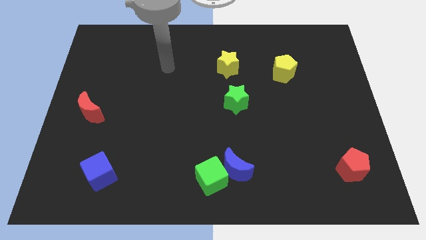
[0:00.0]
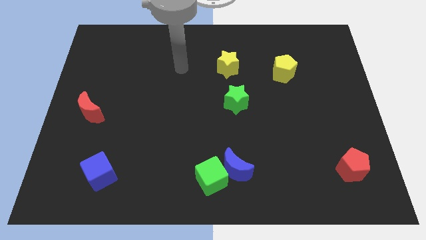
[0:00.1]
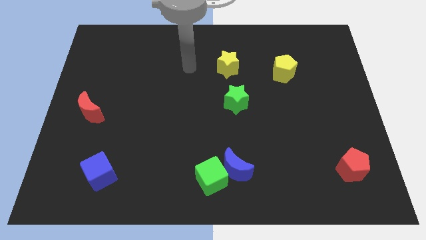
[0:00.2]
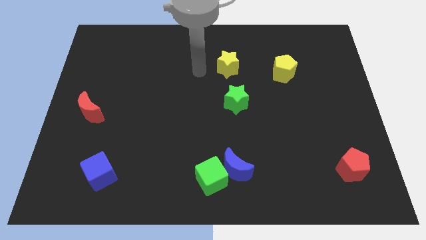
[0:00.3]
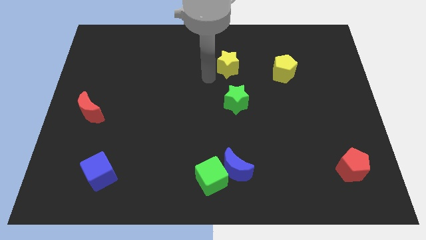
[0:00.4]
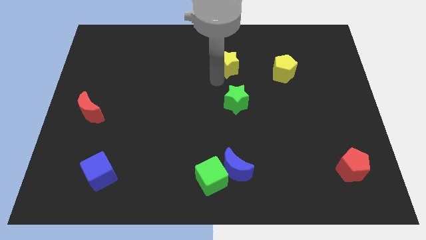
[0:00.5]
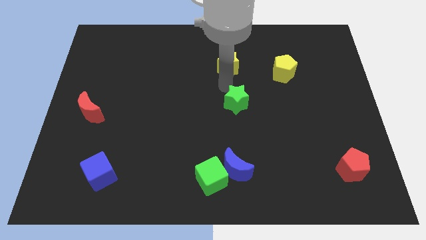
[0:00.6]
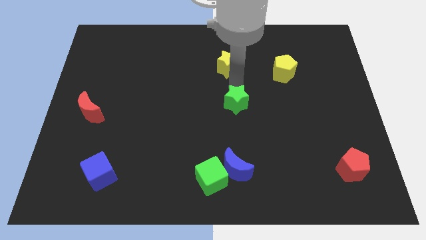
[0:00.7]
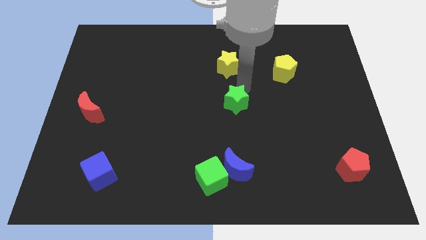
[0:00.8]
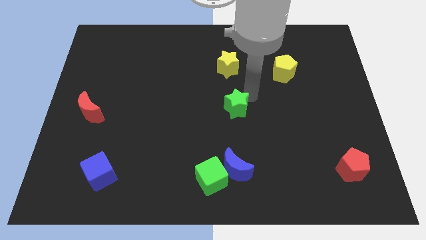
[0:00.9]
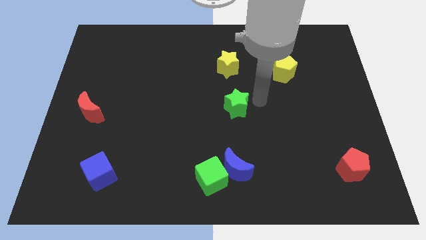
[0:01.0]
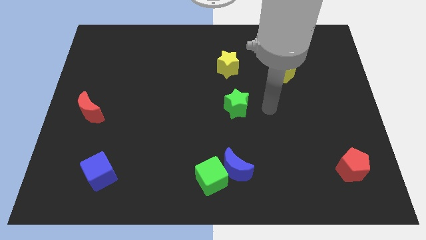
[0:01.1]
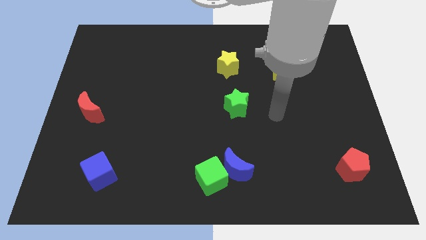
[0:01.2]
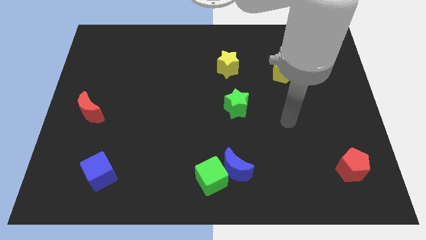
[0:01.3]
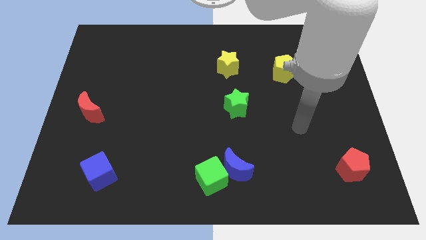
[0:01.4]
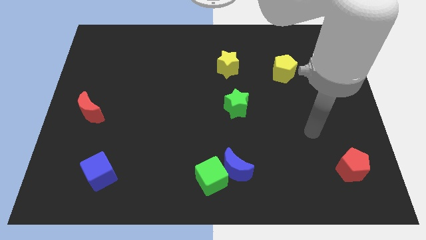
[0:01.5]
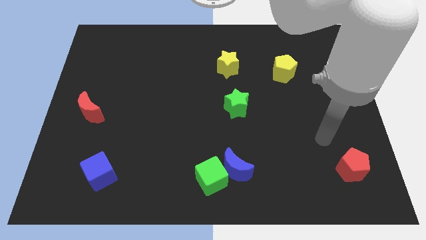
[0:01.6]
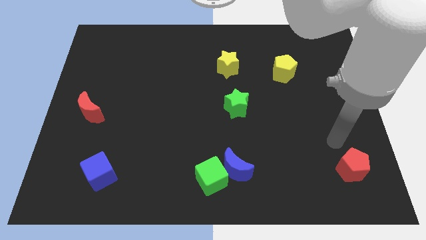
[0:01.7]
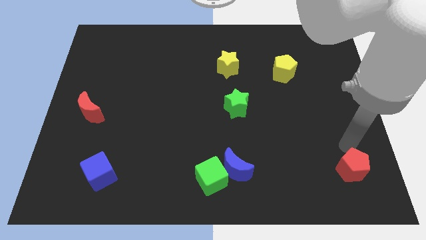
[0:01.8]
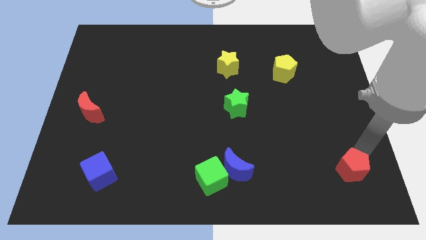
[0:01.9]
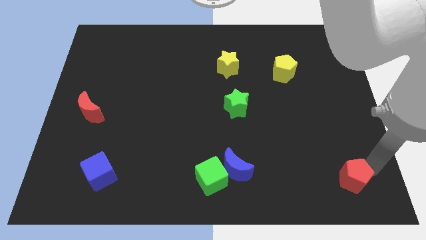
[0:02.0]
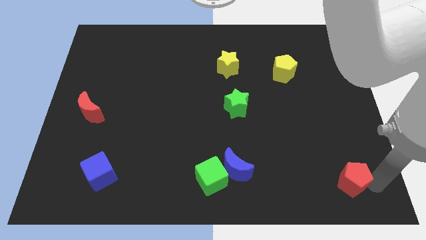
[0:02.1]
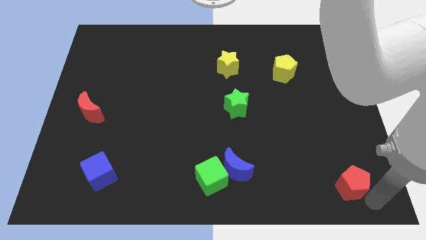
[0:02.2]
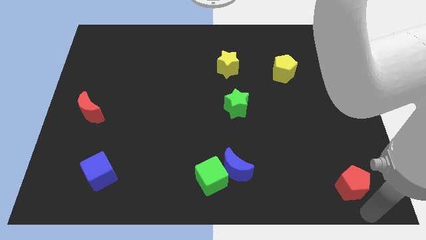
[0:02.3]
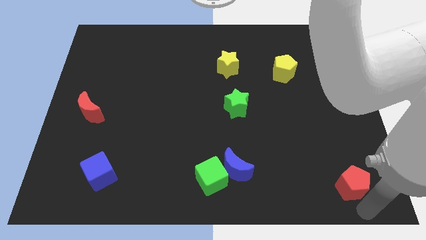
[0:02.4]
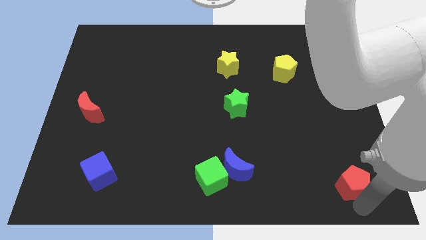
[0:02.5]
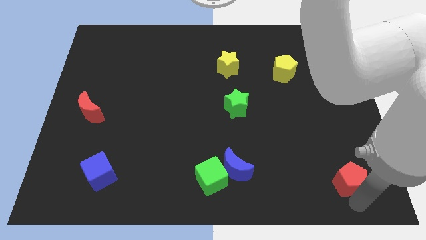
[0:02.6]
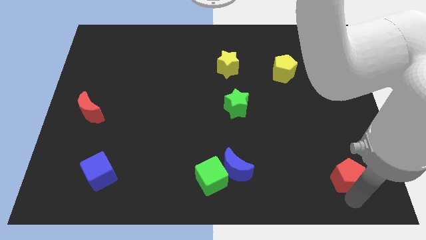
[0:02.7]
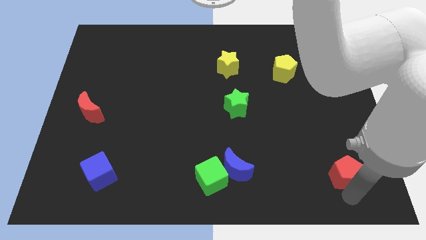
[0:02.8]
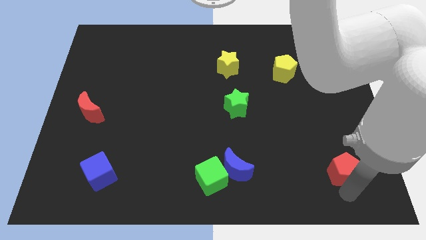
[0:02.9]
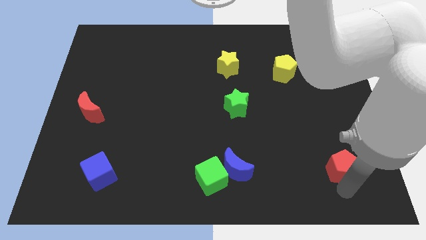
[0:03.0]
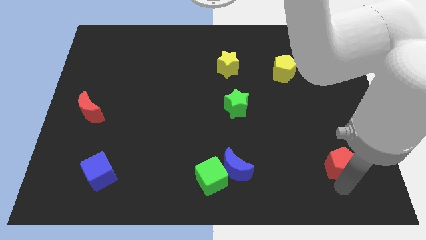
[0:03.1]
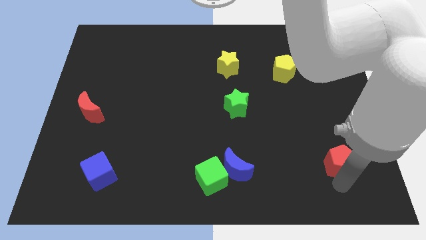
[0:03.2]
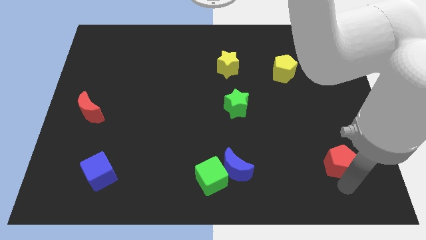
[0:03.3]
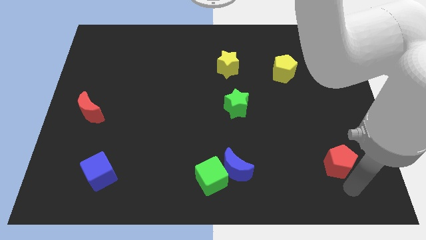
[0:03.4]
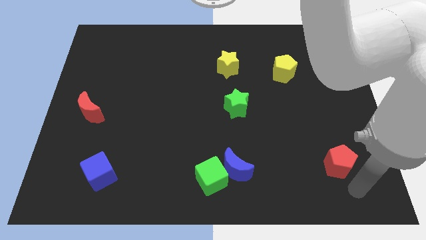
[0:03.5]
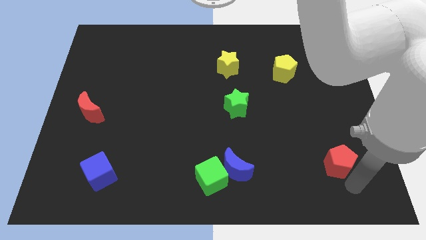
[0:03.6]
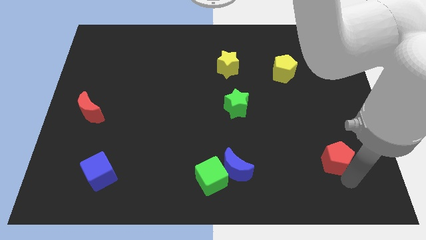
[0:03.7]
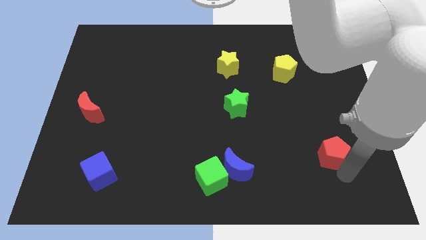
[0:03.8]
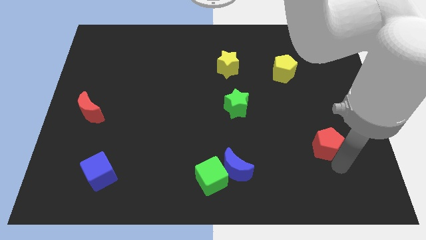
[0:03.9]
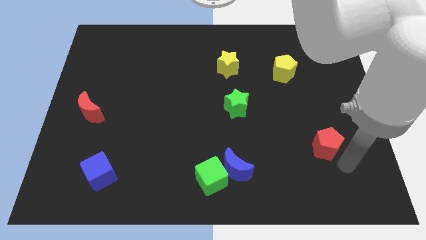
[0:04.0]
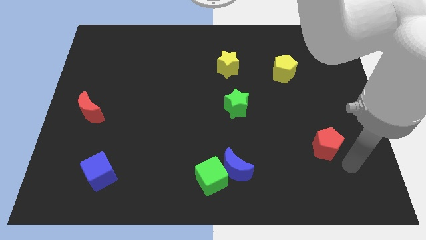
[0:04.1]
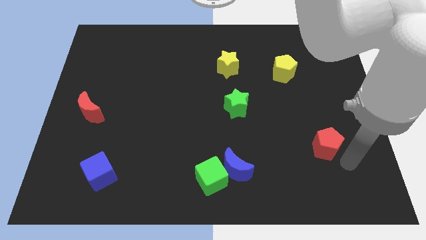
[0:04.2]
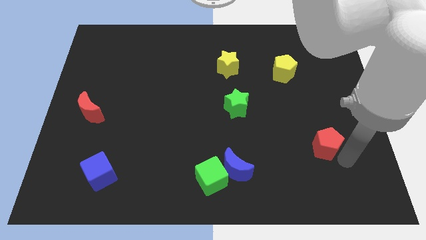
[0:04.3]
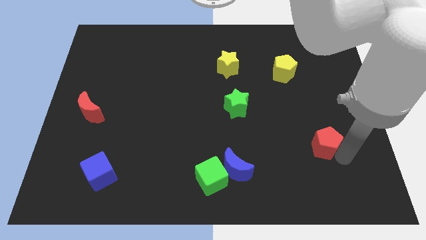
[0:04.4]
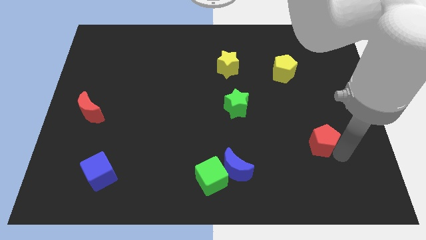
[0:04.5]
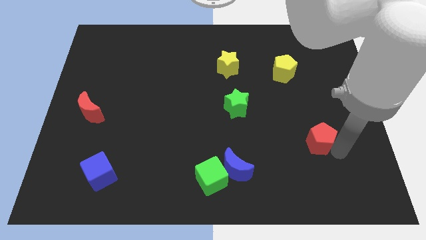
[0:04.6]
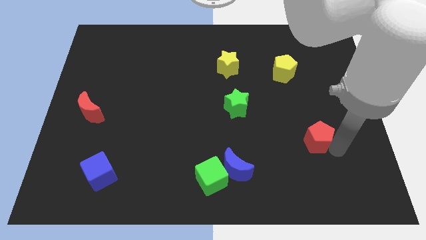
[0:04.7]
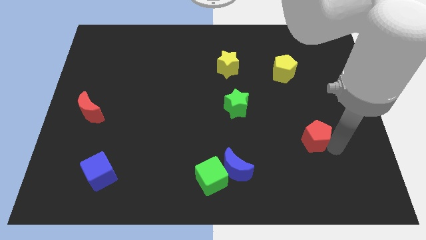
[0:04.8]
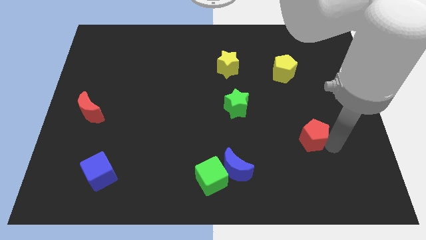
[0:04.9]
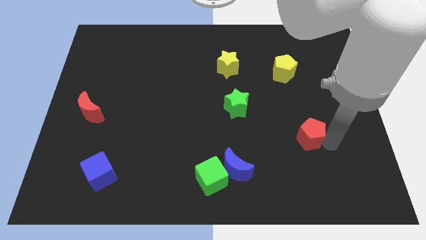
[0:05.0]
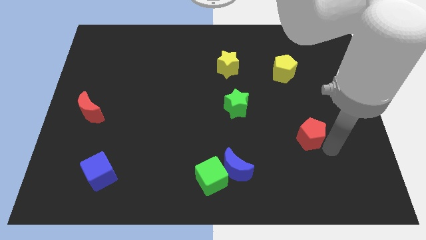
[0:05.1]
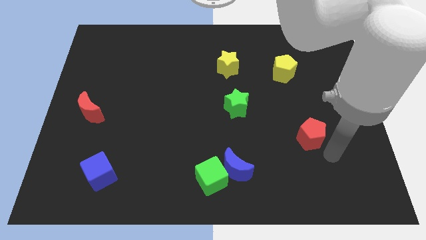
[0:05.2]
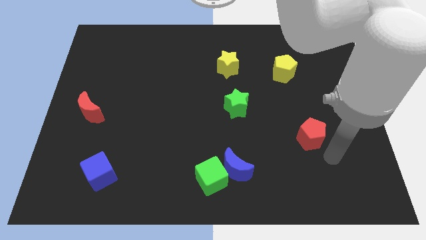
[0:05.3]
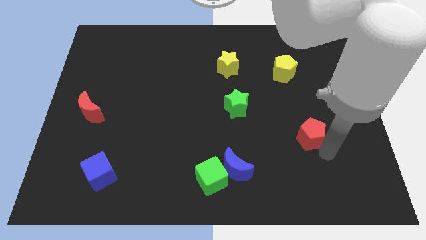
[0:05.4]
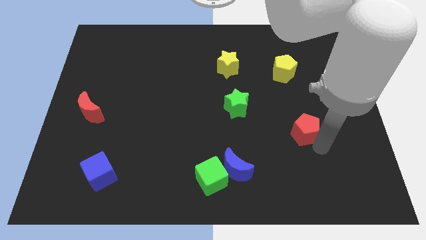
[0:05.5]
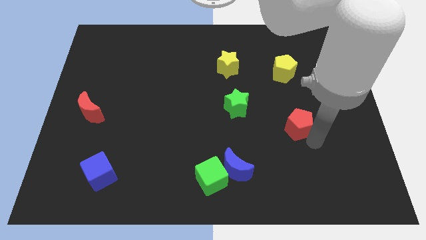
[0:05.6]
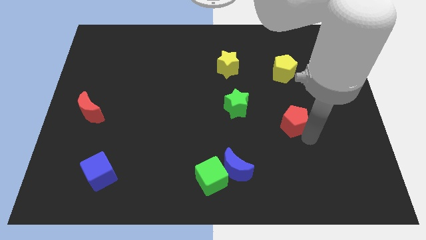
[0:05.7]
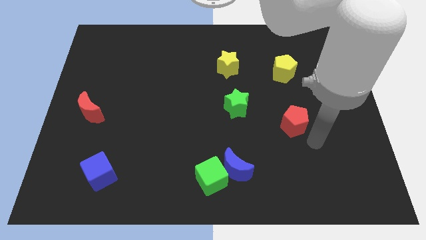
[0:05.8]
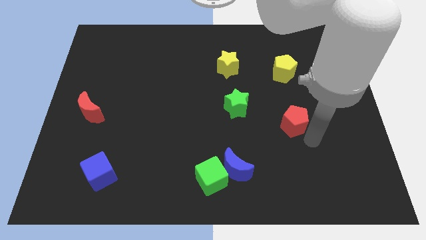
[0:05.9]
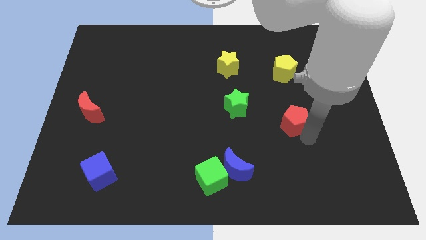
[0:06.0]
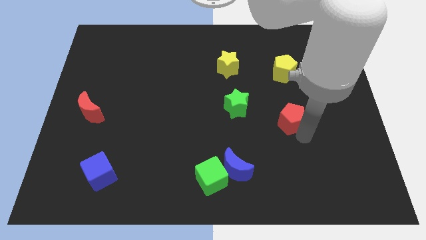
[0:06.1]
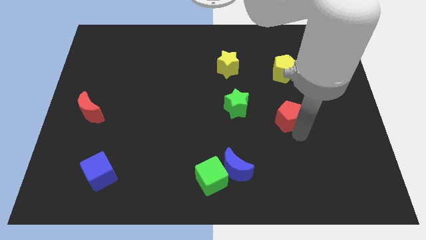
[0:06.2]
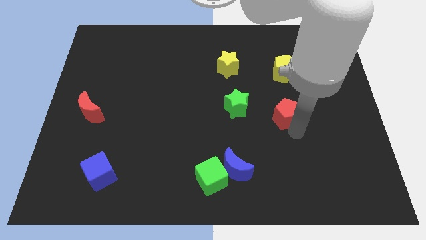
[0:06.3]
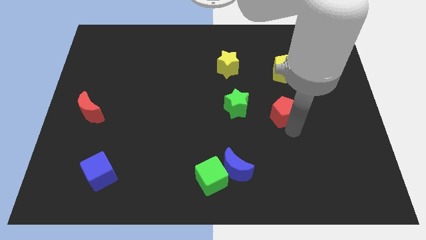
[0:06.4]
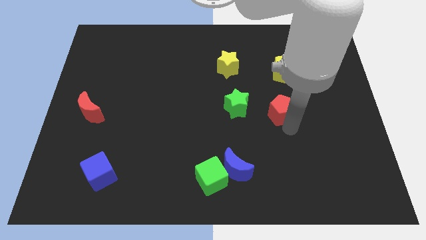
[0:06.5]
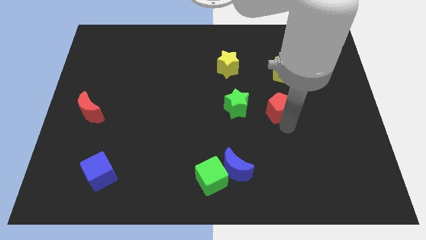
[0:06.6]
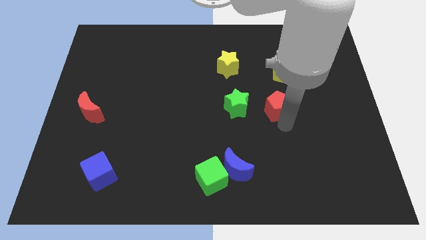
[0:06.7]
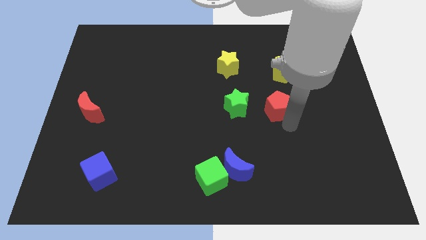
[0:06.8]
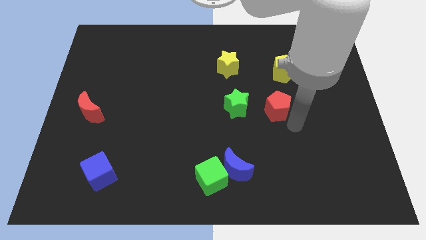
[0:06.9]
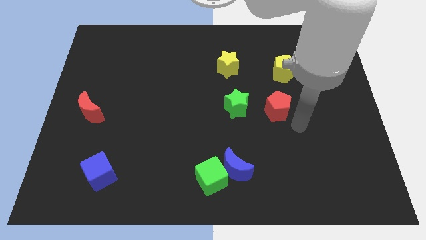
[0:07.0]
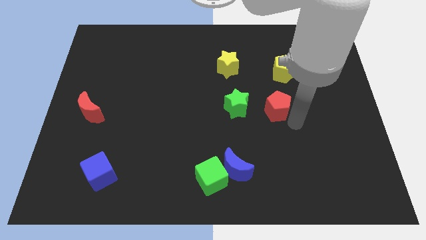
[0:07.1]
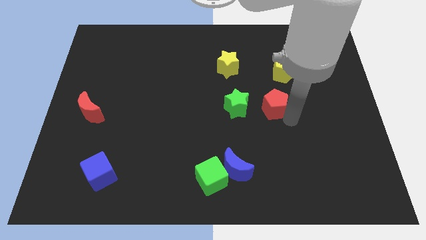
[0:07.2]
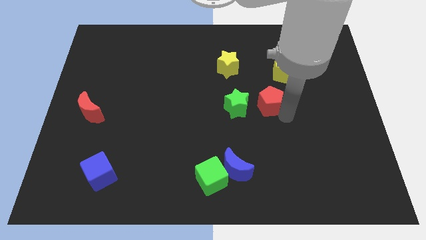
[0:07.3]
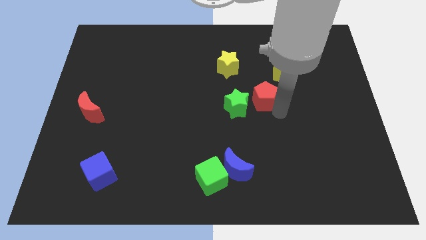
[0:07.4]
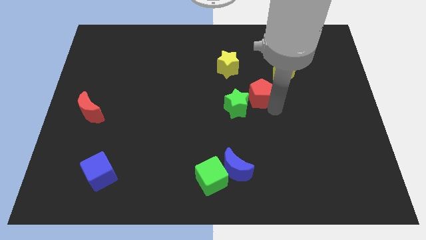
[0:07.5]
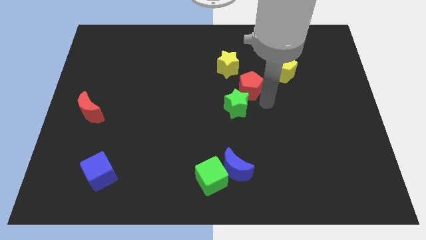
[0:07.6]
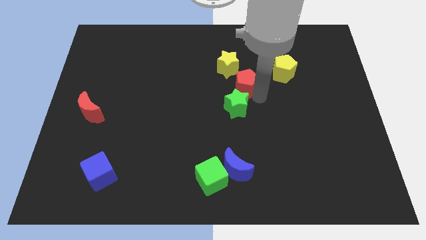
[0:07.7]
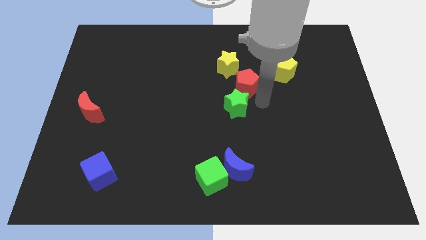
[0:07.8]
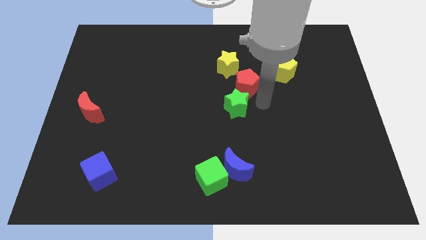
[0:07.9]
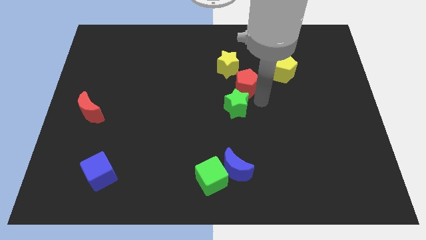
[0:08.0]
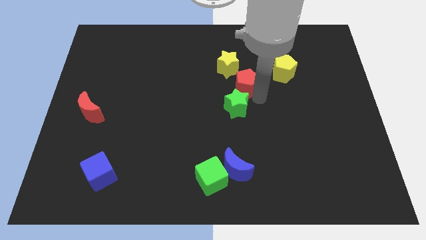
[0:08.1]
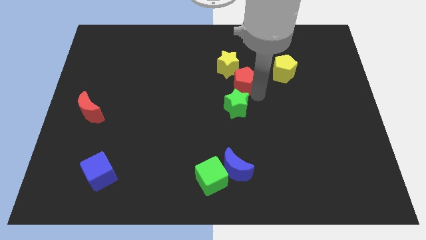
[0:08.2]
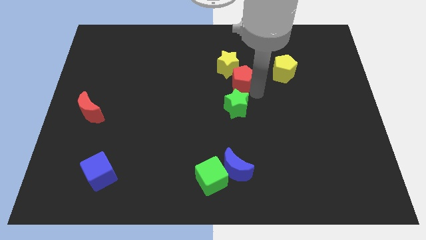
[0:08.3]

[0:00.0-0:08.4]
move the red pentagon to the yellow star
